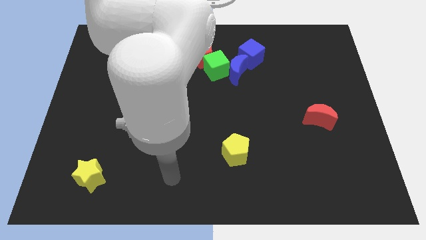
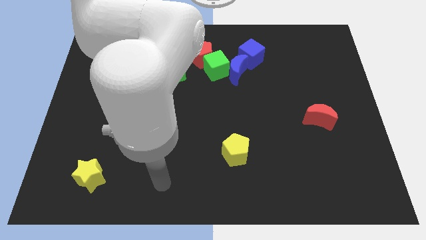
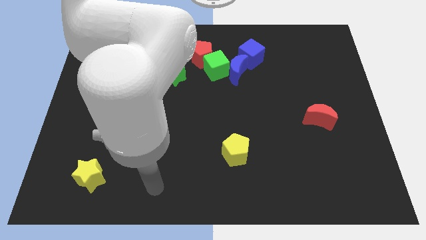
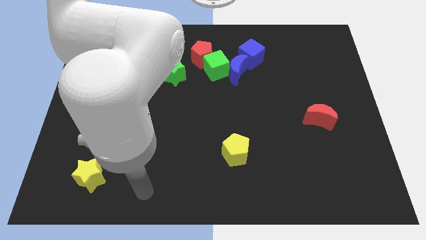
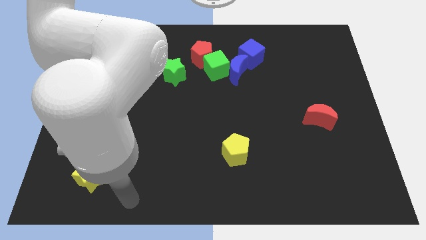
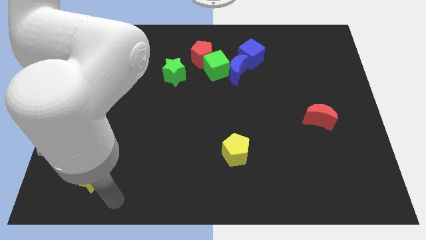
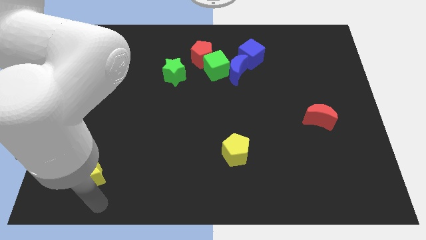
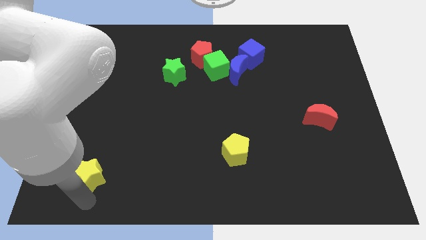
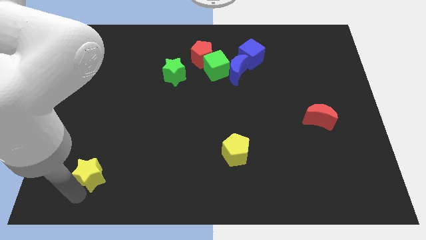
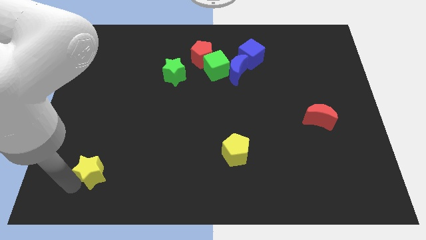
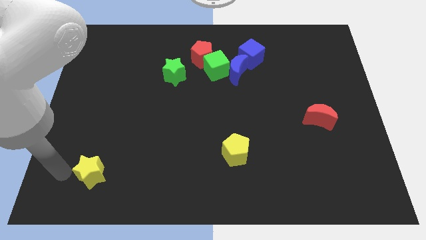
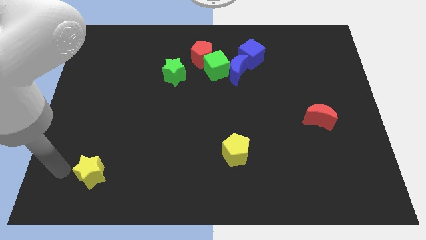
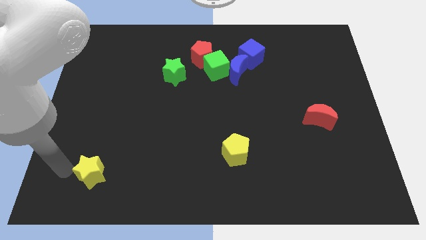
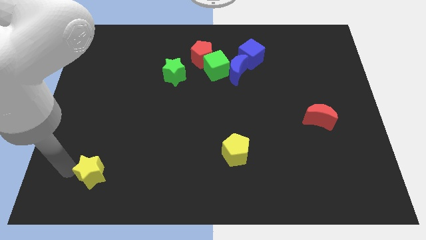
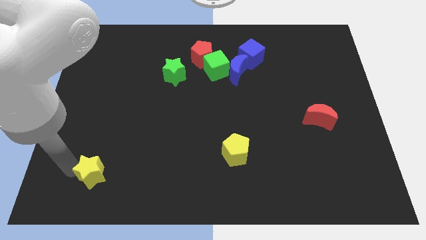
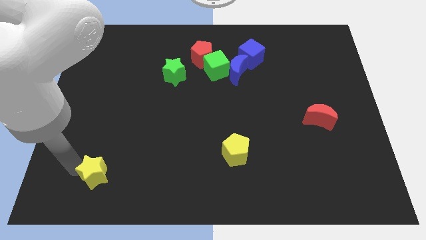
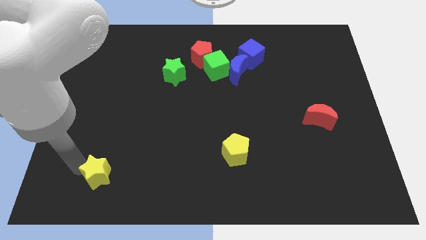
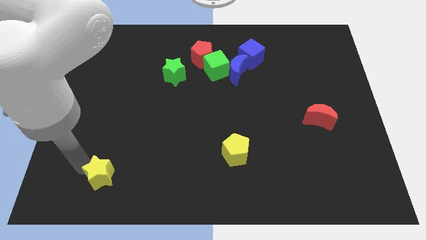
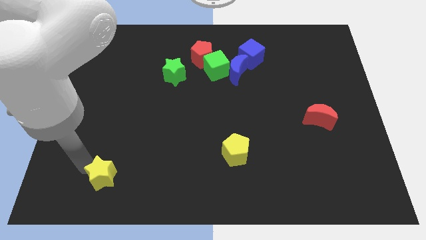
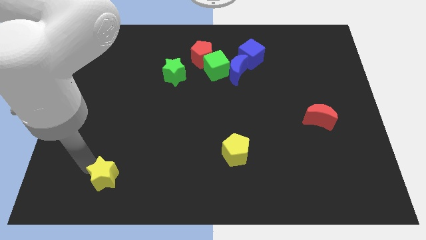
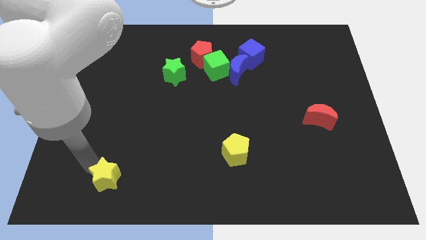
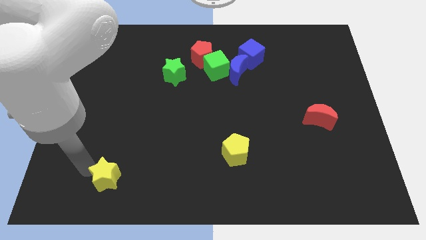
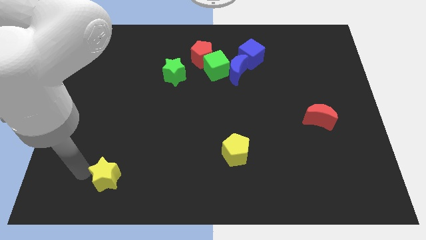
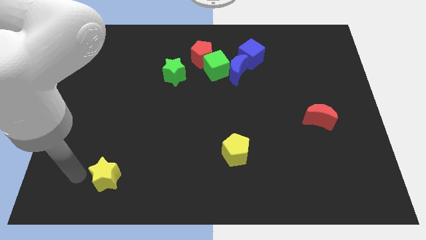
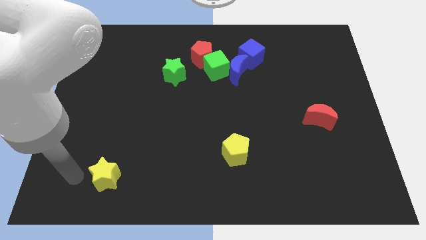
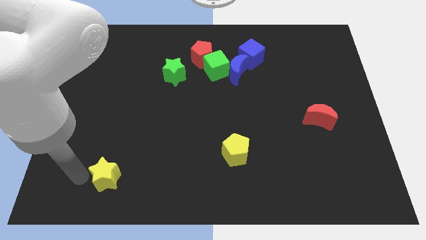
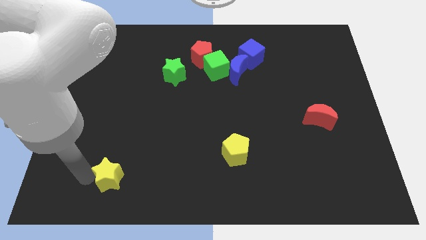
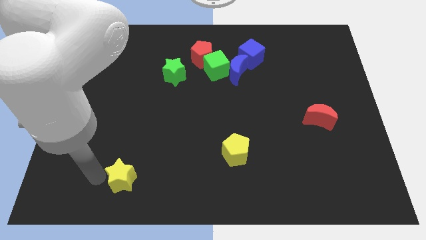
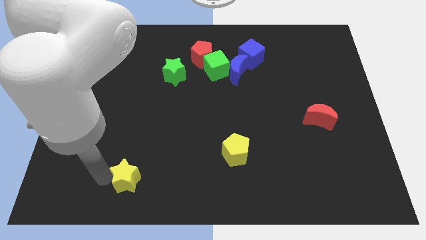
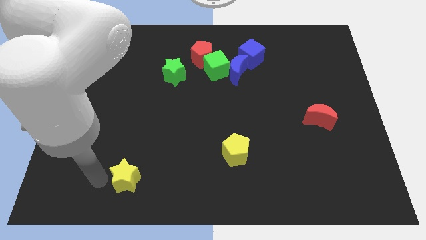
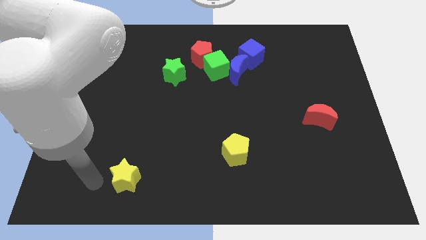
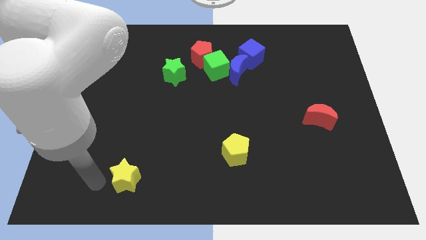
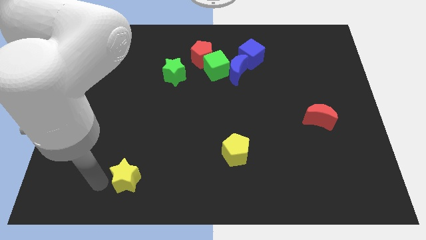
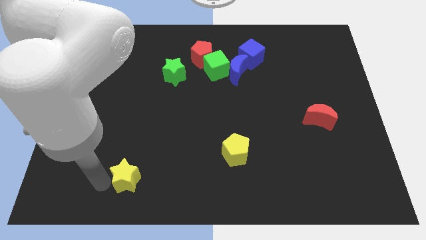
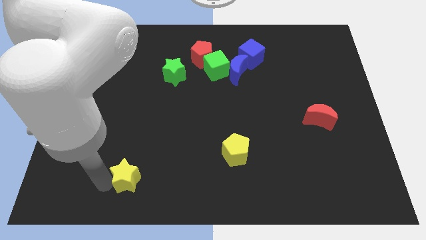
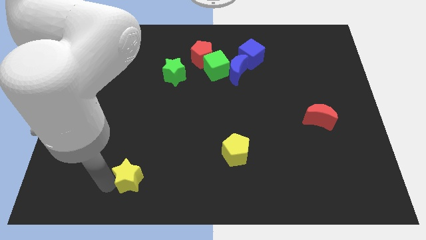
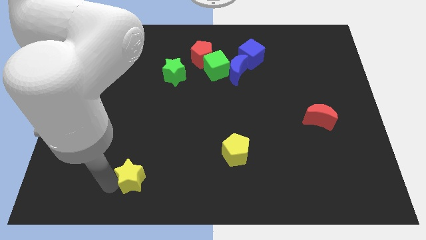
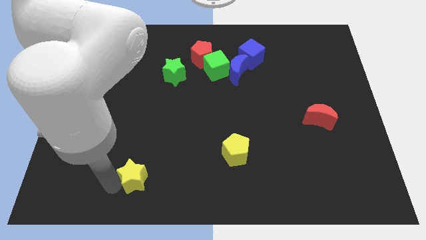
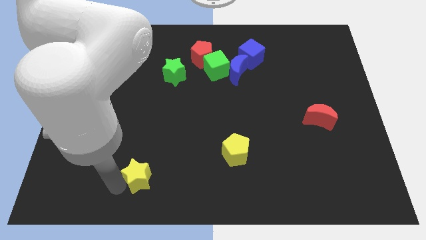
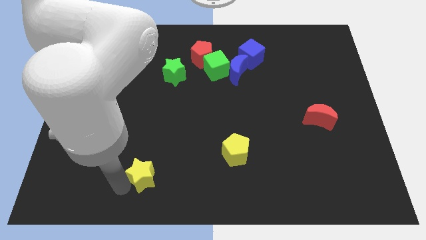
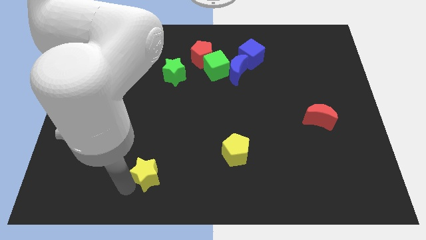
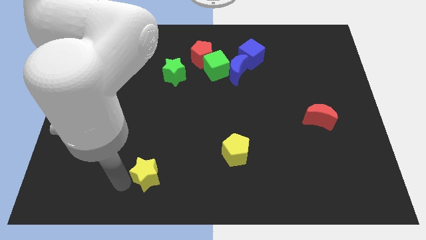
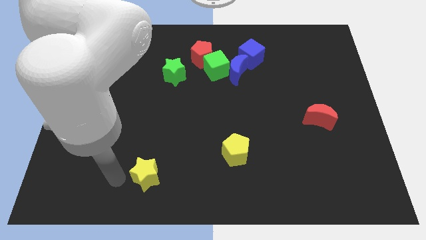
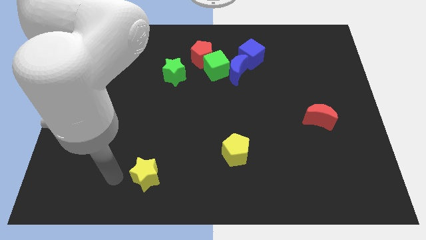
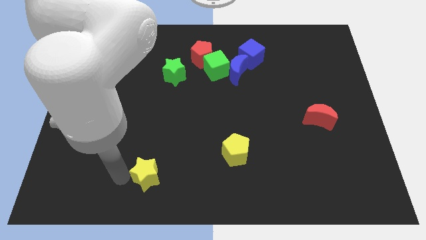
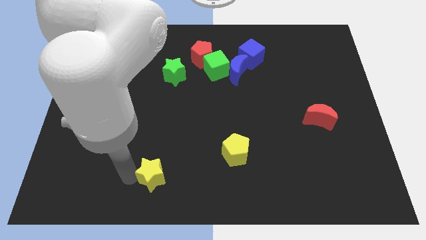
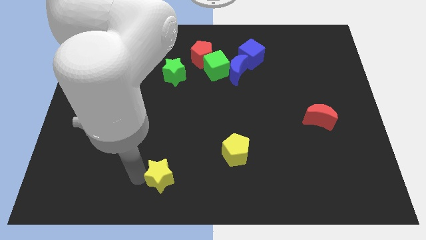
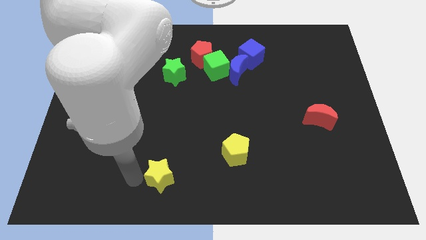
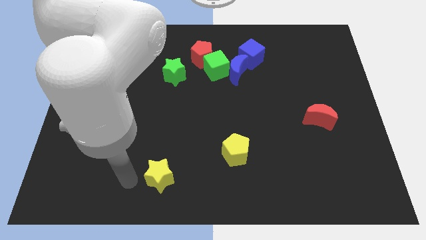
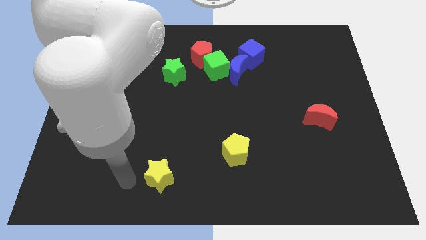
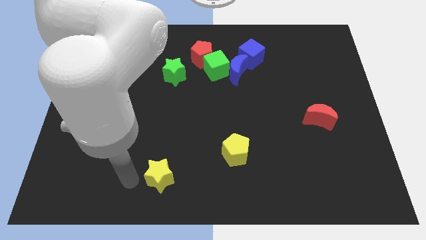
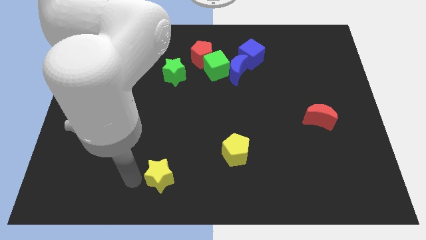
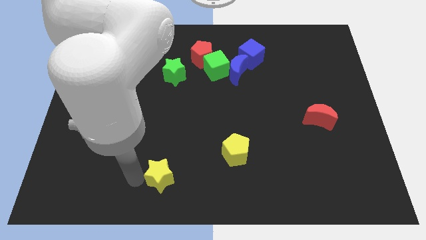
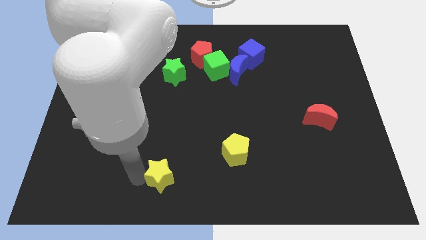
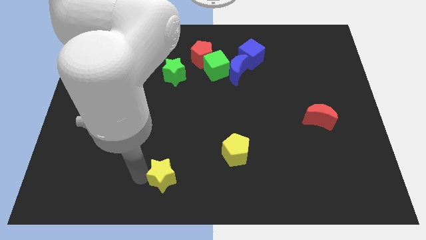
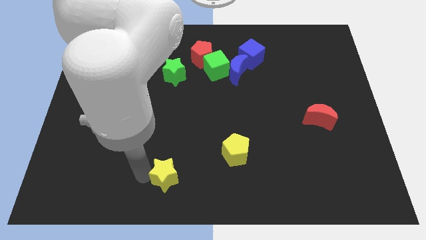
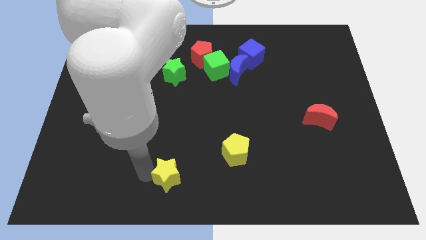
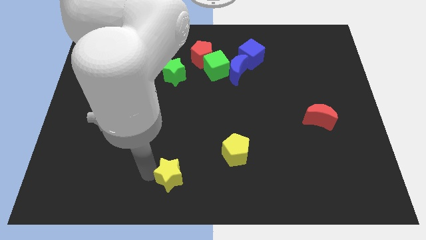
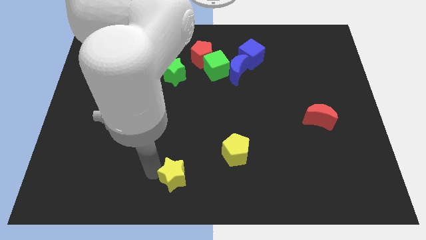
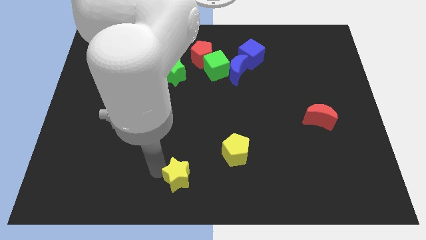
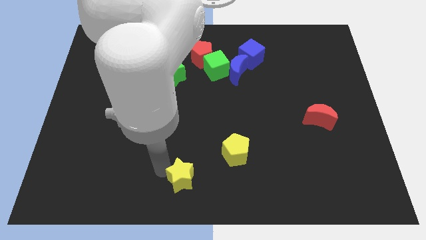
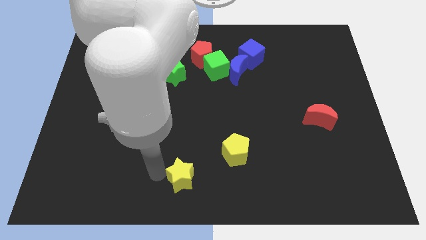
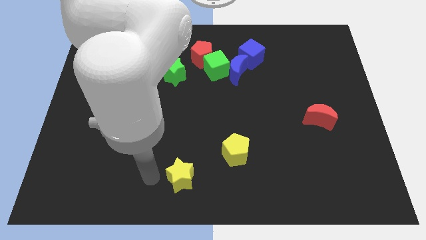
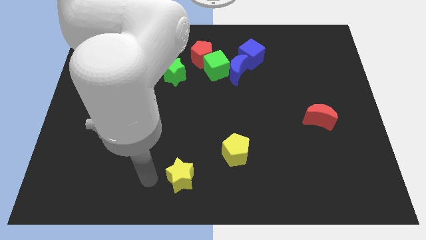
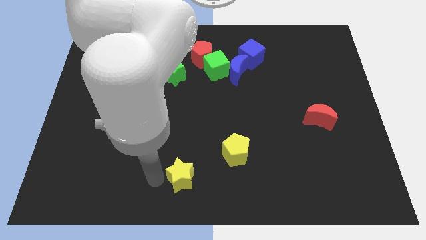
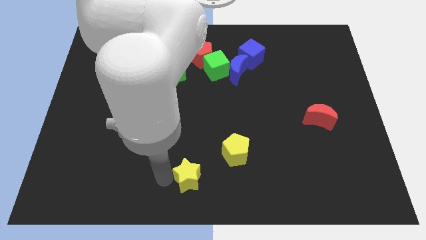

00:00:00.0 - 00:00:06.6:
move the yellow star to the right

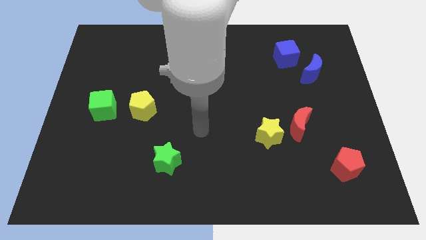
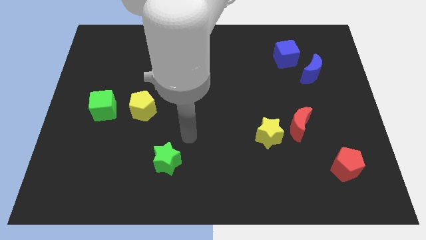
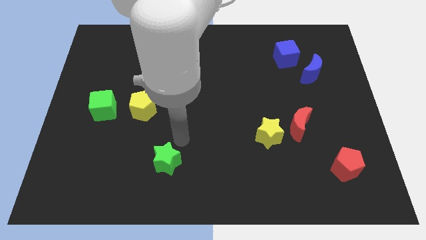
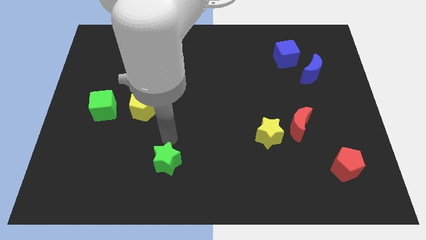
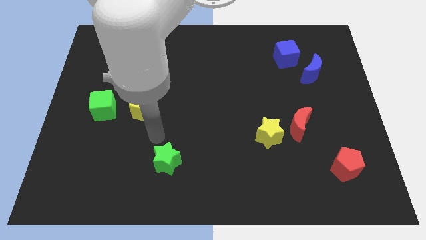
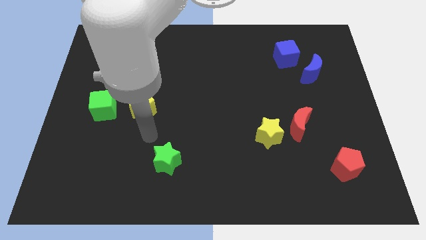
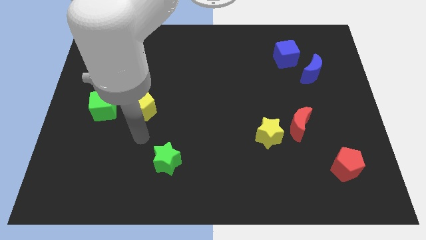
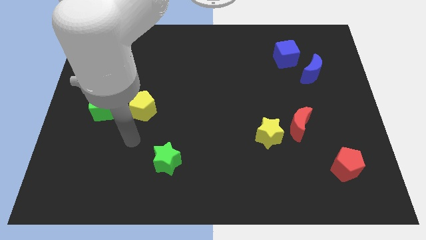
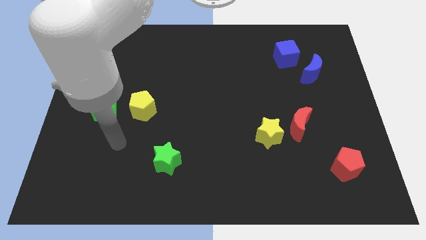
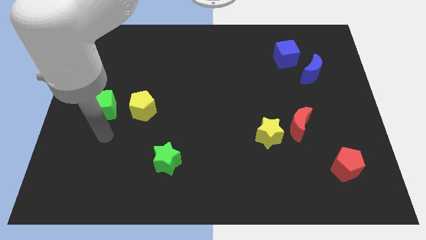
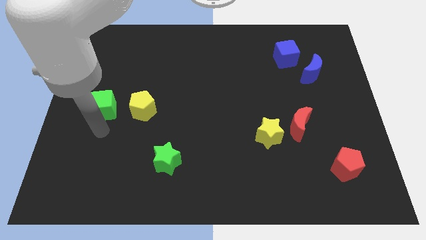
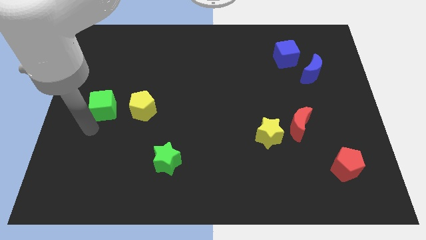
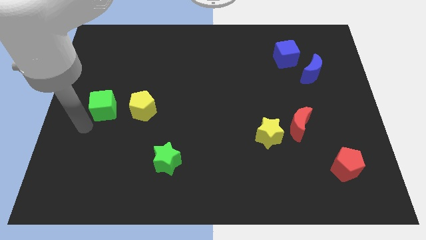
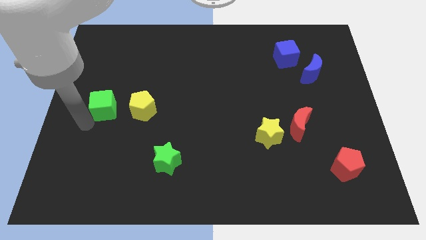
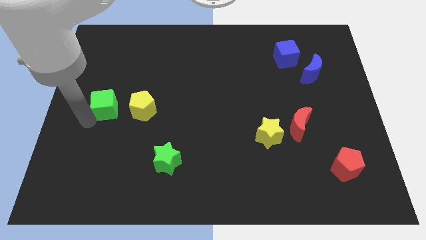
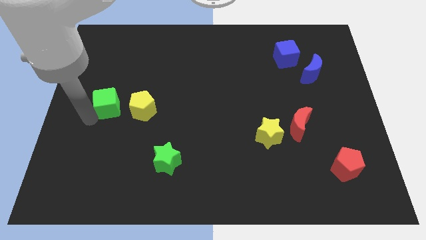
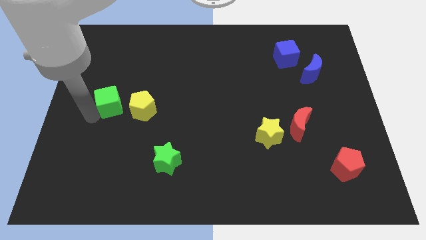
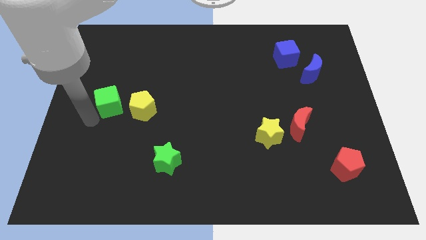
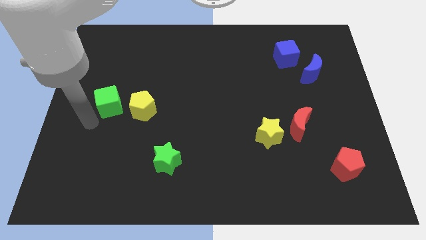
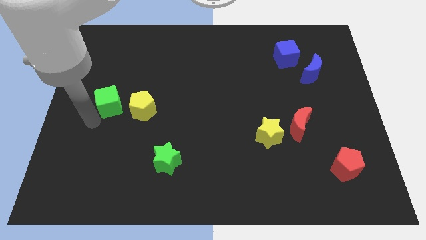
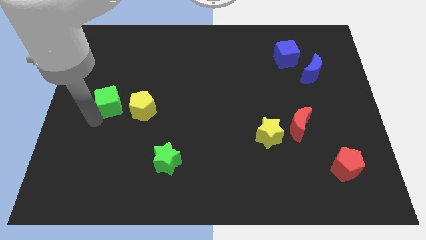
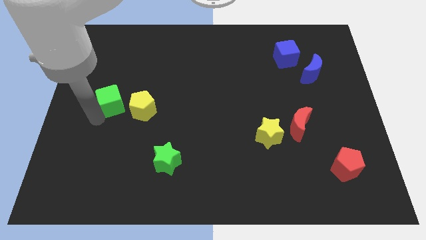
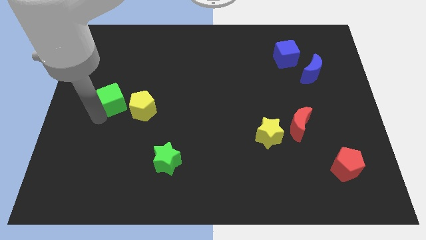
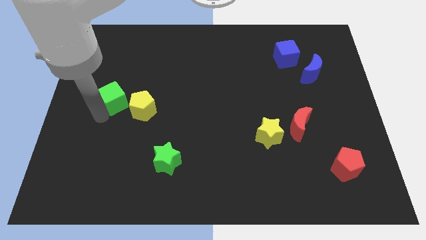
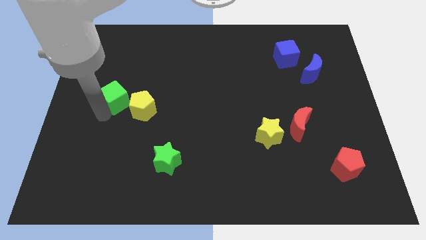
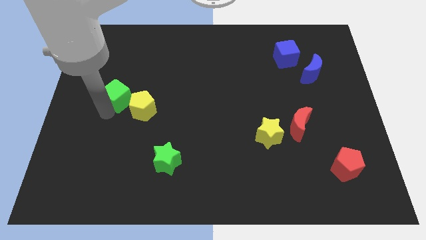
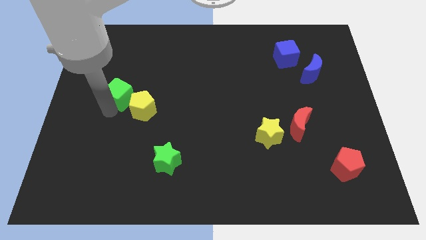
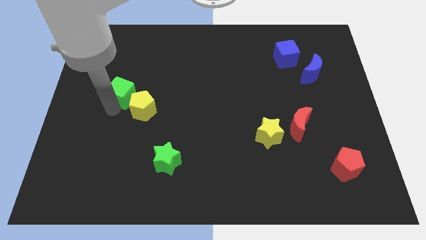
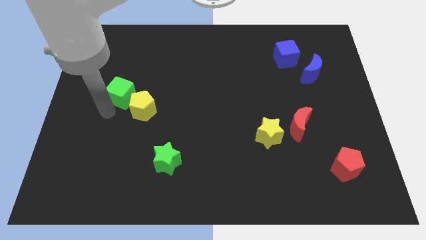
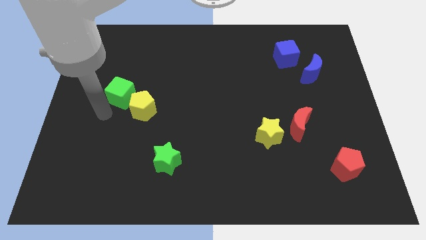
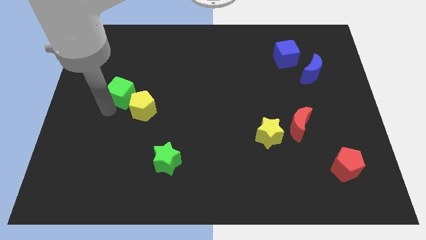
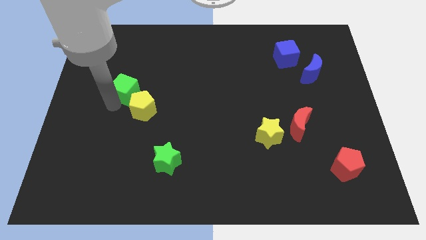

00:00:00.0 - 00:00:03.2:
slightly push the green cube upwards and then to the right
